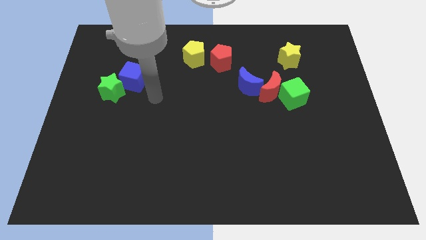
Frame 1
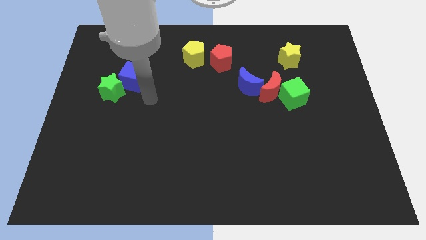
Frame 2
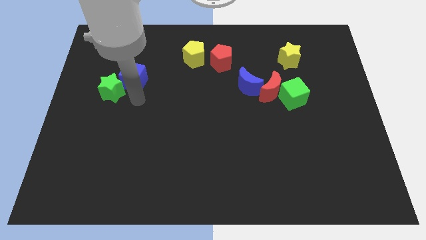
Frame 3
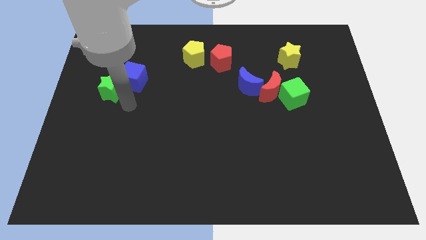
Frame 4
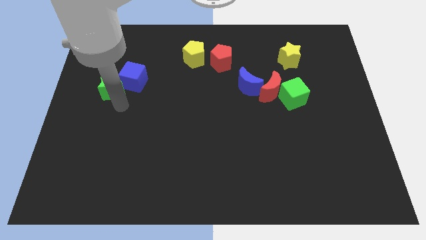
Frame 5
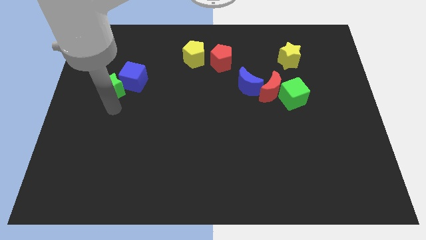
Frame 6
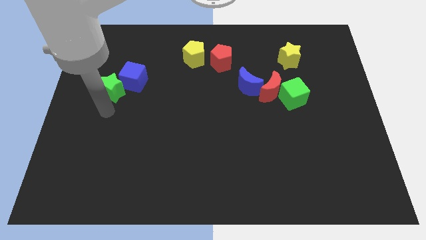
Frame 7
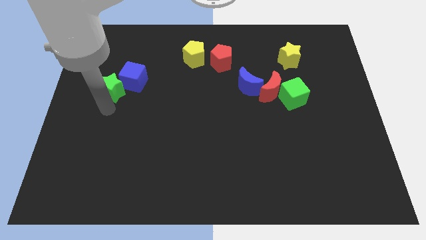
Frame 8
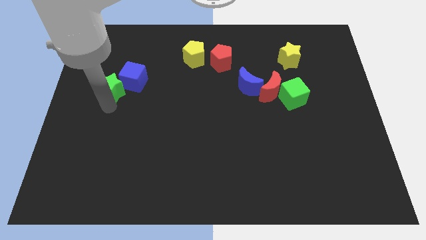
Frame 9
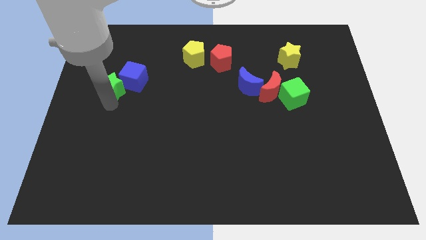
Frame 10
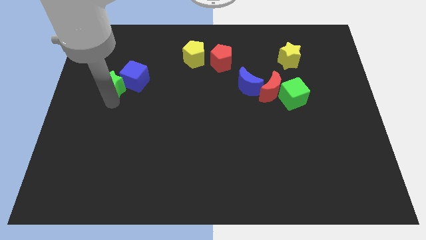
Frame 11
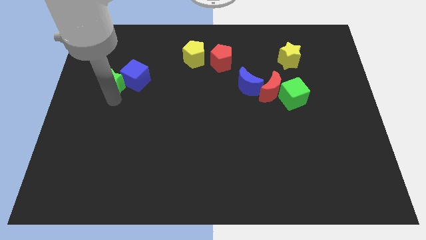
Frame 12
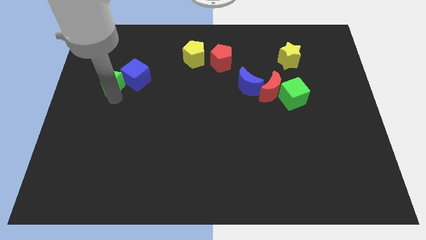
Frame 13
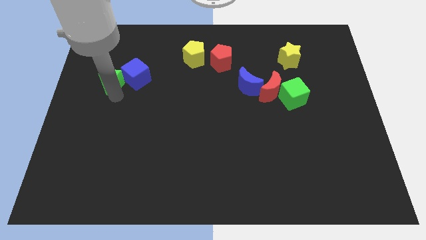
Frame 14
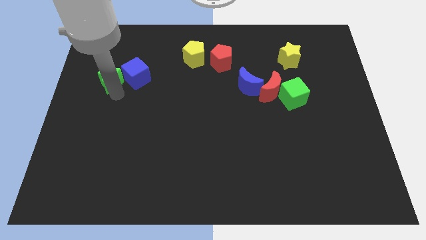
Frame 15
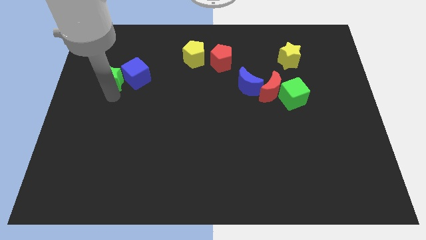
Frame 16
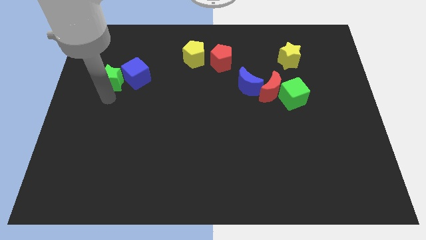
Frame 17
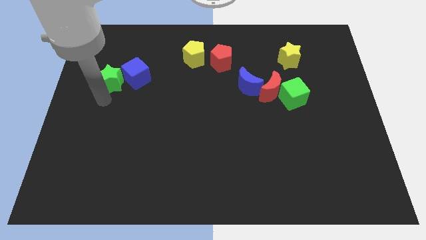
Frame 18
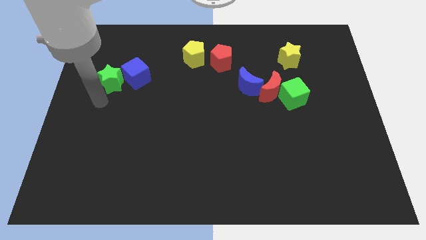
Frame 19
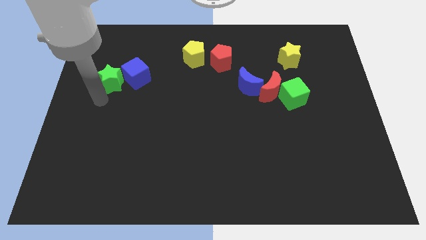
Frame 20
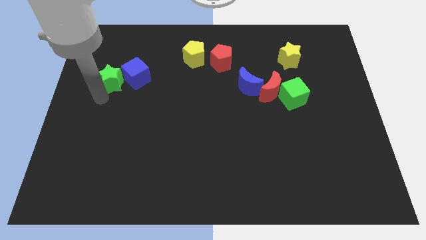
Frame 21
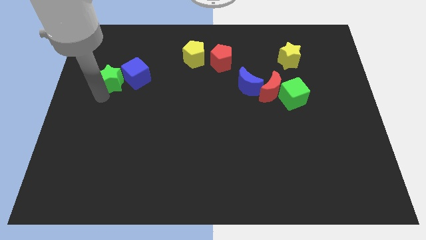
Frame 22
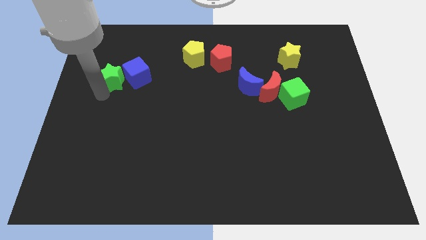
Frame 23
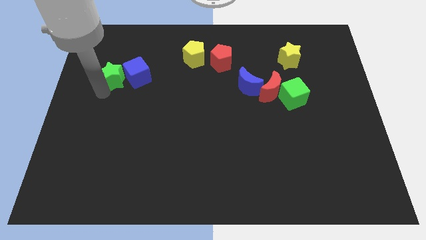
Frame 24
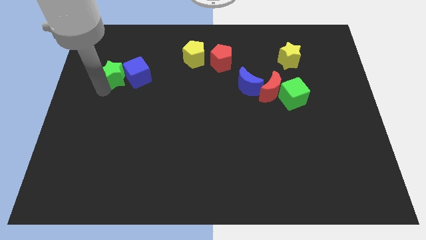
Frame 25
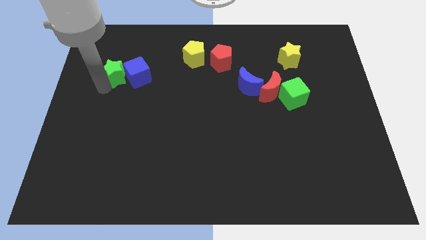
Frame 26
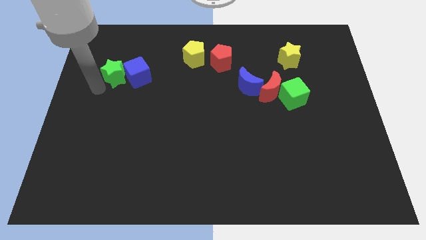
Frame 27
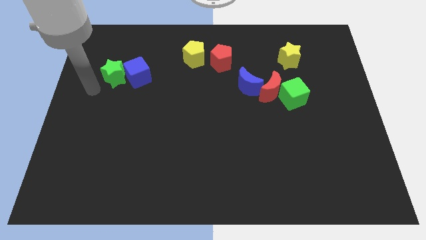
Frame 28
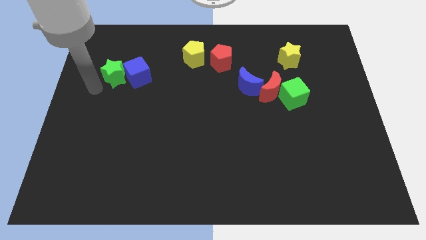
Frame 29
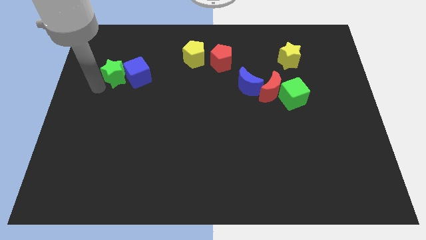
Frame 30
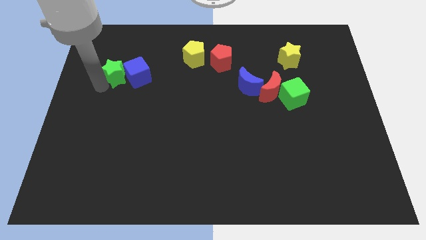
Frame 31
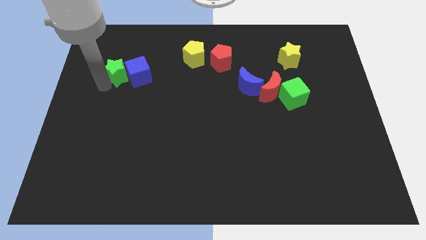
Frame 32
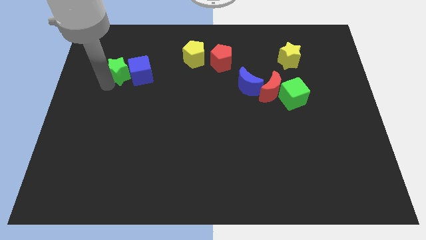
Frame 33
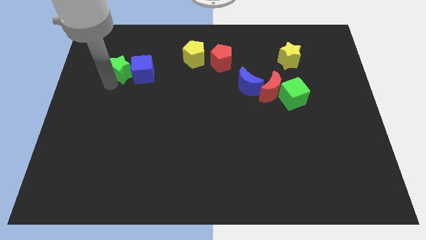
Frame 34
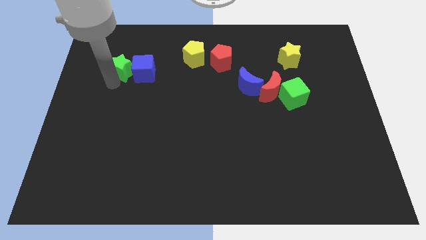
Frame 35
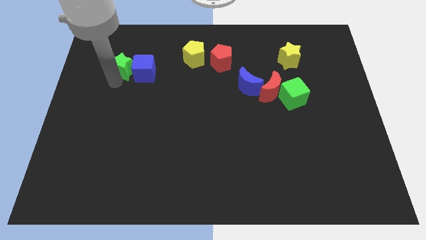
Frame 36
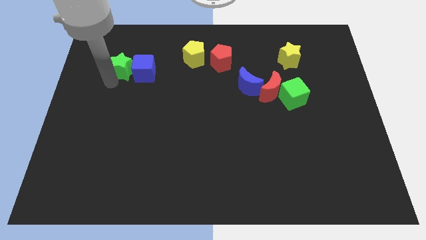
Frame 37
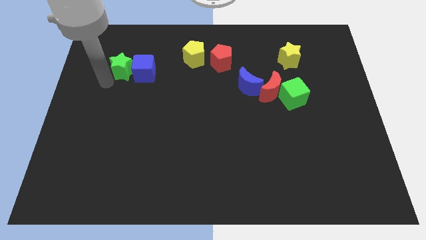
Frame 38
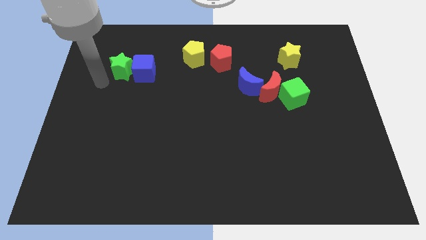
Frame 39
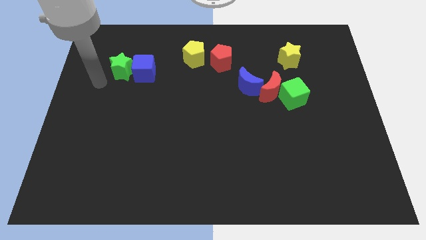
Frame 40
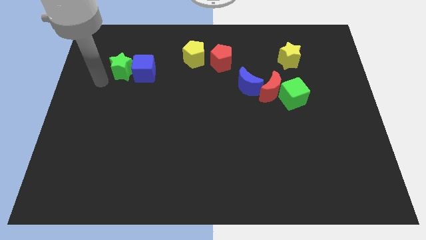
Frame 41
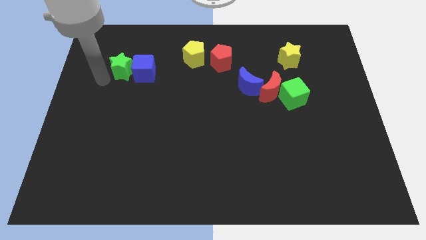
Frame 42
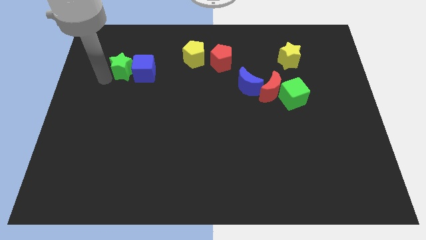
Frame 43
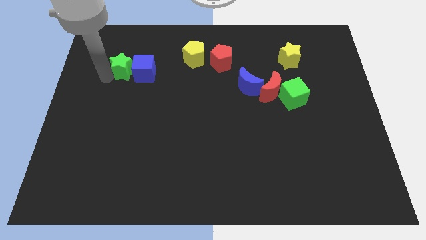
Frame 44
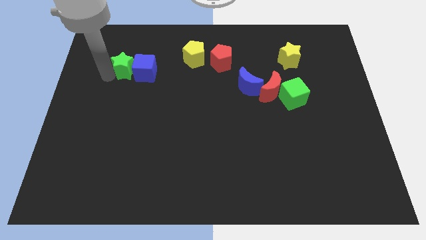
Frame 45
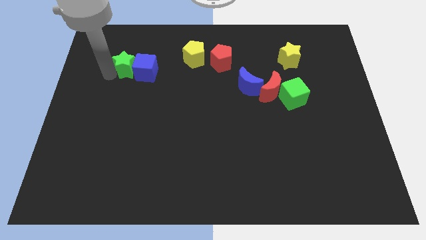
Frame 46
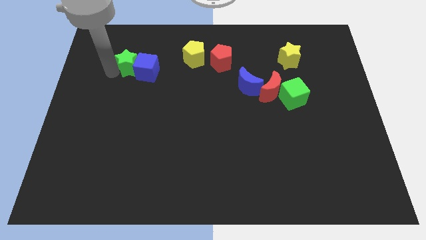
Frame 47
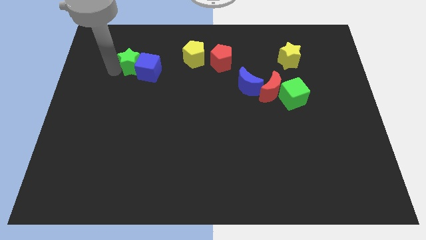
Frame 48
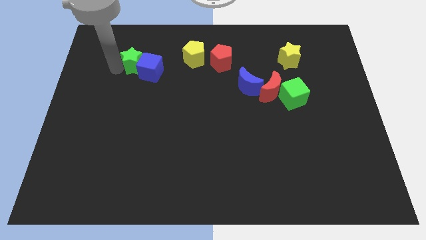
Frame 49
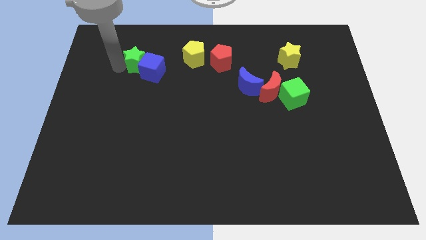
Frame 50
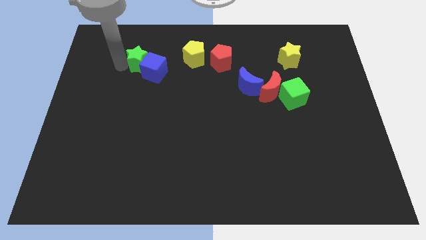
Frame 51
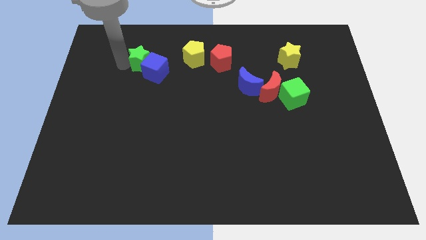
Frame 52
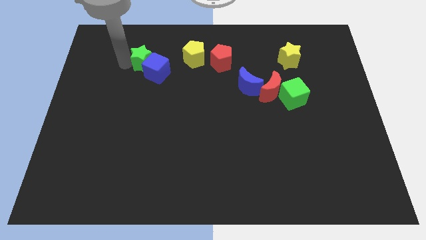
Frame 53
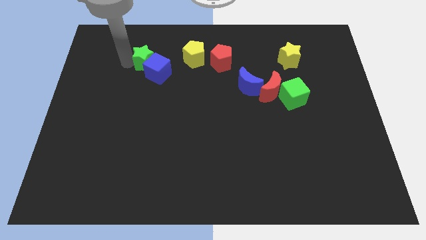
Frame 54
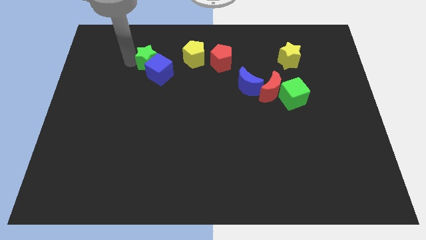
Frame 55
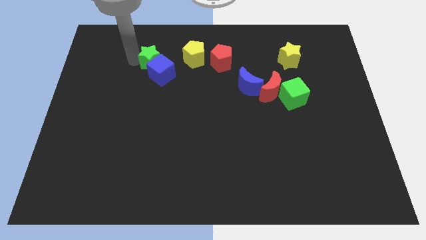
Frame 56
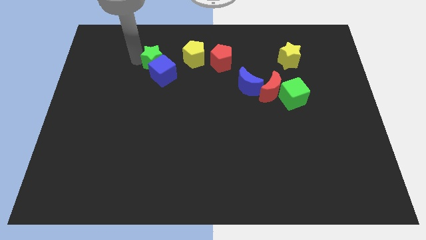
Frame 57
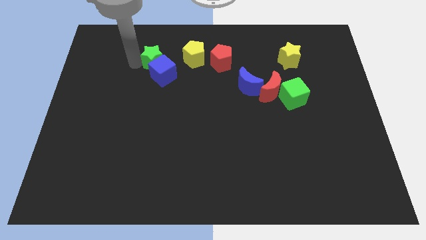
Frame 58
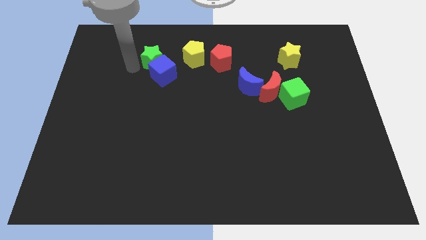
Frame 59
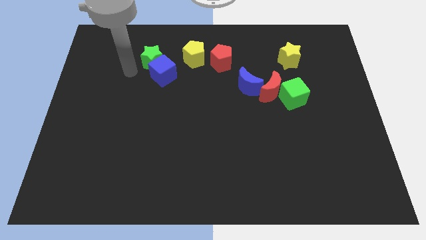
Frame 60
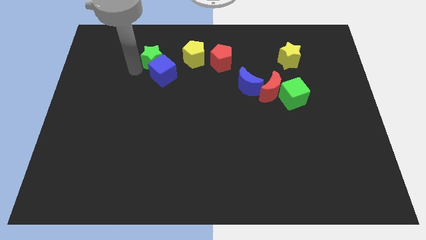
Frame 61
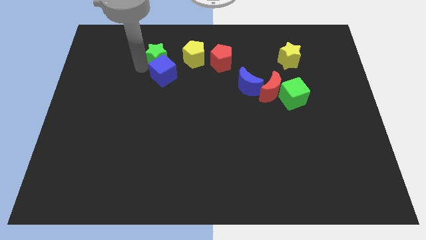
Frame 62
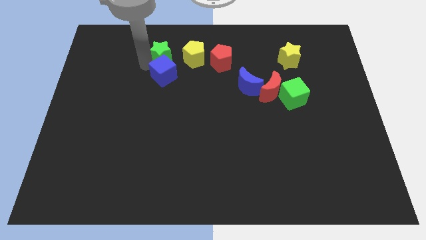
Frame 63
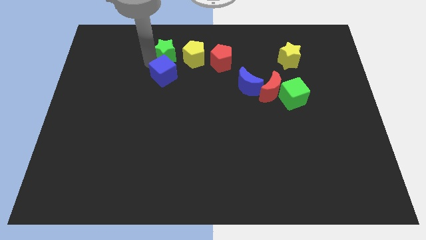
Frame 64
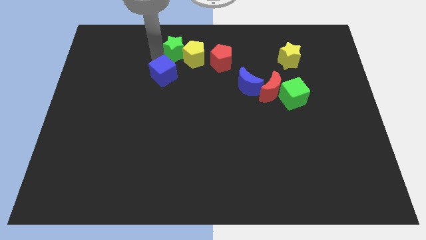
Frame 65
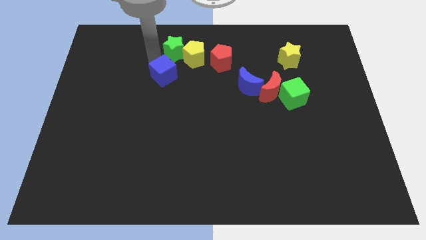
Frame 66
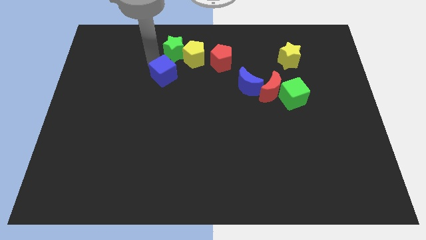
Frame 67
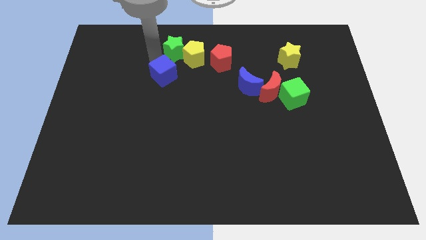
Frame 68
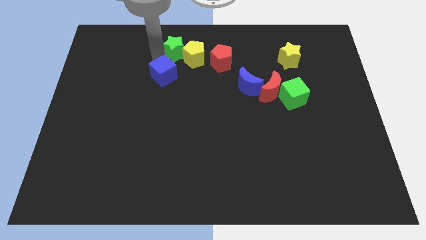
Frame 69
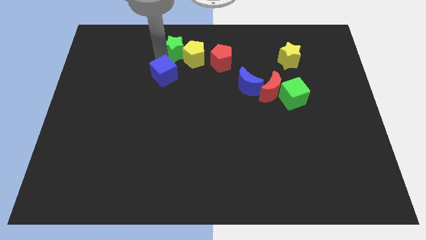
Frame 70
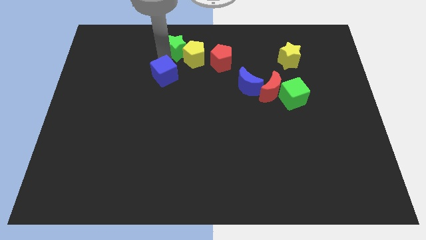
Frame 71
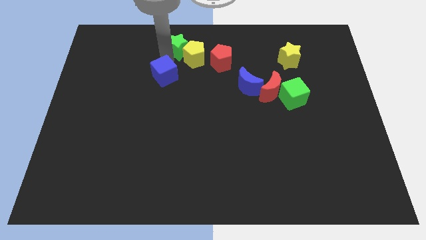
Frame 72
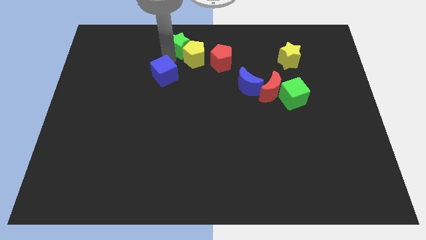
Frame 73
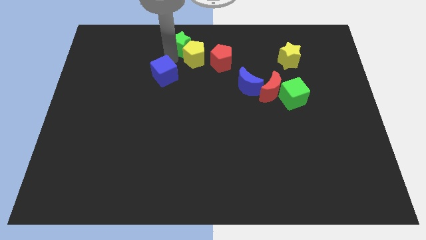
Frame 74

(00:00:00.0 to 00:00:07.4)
push the green star to the top
